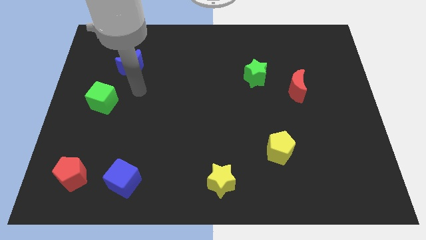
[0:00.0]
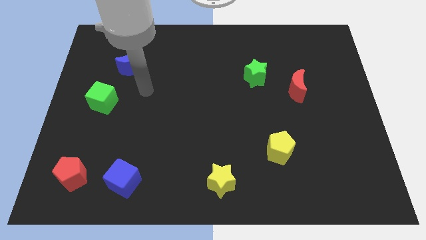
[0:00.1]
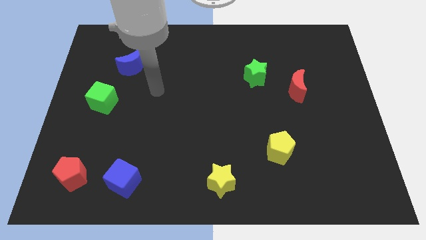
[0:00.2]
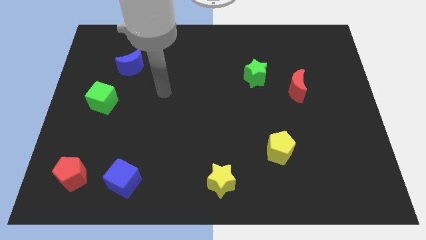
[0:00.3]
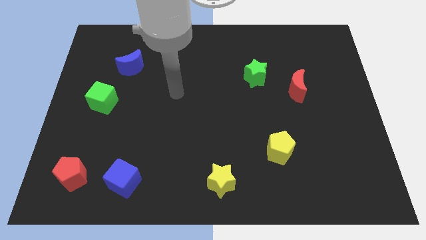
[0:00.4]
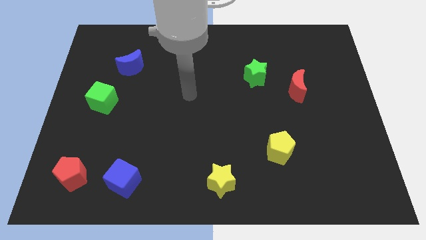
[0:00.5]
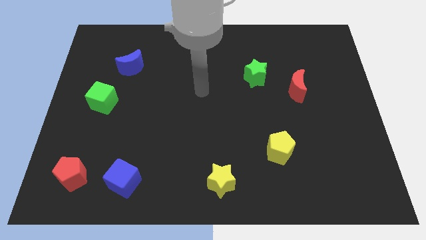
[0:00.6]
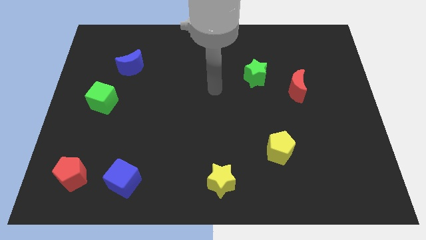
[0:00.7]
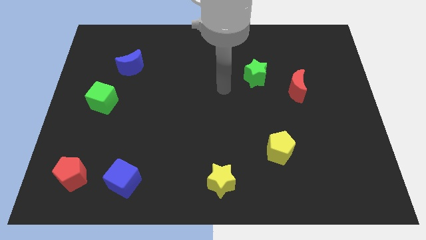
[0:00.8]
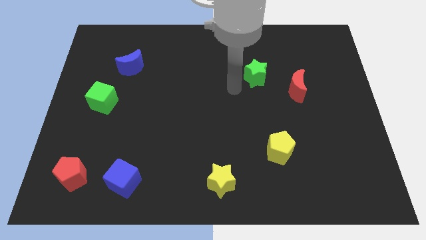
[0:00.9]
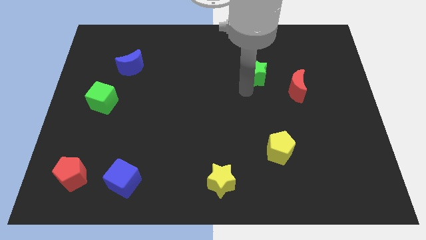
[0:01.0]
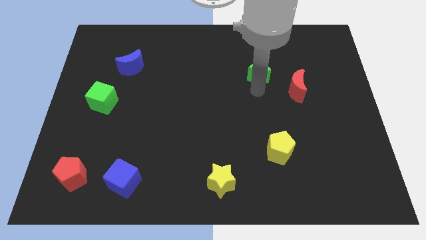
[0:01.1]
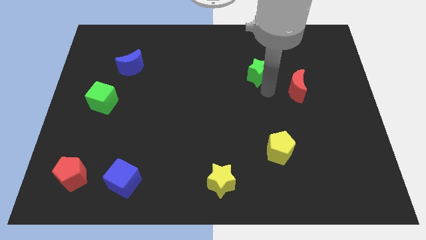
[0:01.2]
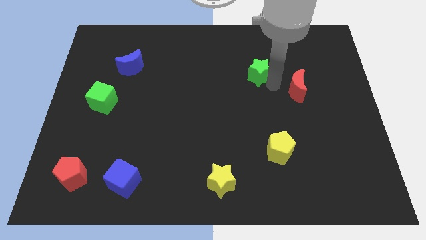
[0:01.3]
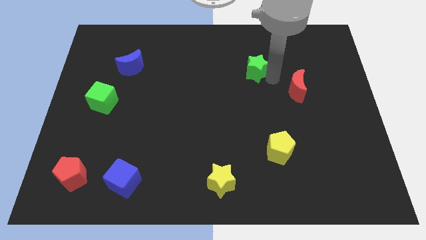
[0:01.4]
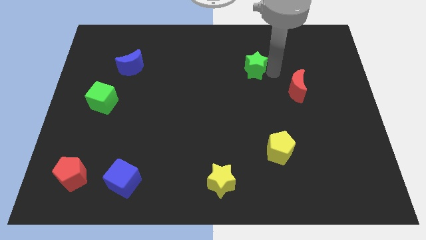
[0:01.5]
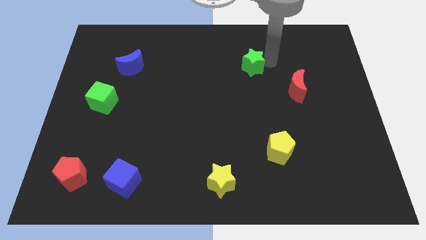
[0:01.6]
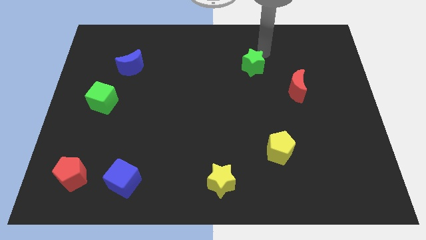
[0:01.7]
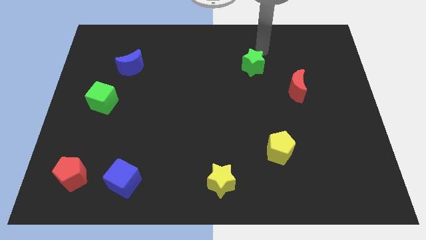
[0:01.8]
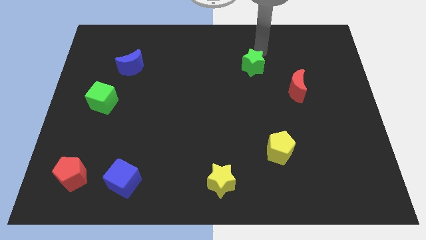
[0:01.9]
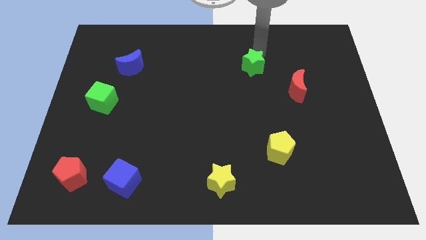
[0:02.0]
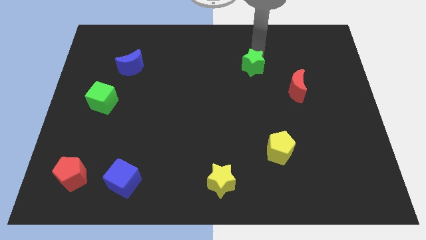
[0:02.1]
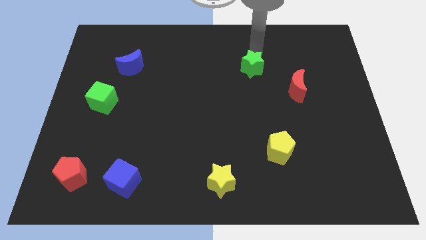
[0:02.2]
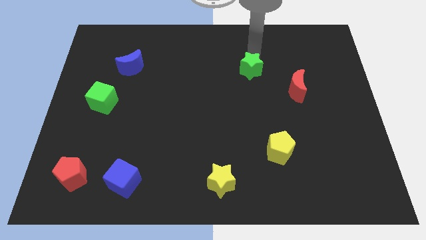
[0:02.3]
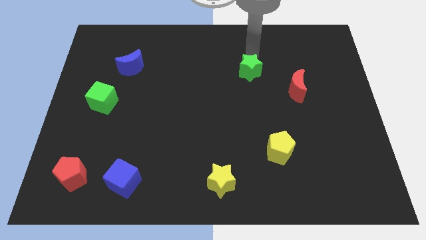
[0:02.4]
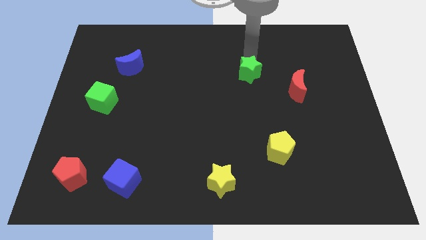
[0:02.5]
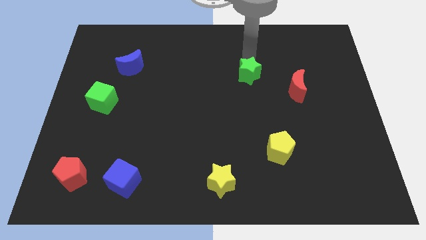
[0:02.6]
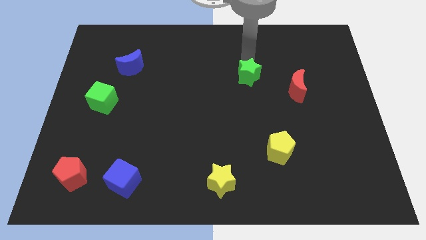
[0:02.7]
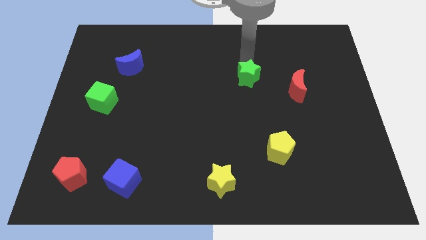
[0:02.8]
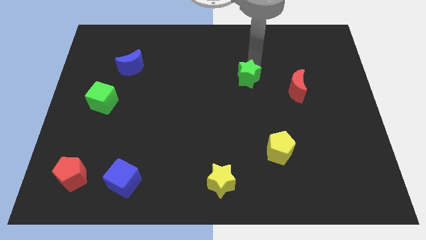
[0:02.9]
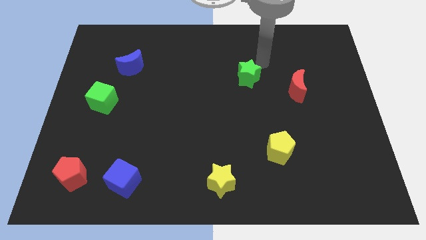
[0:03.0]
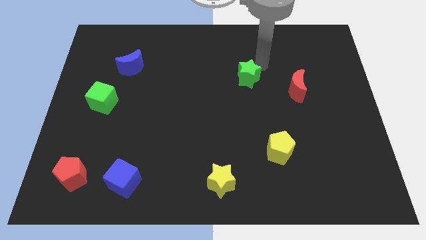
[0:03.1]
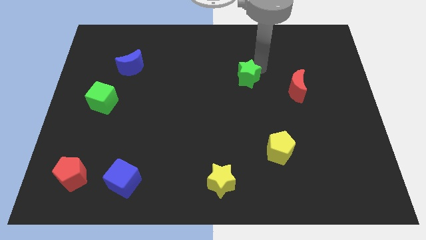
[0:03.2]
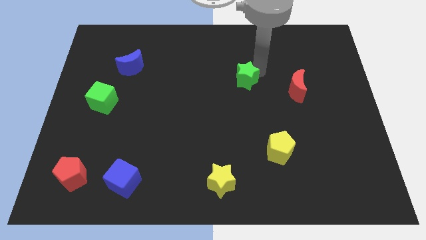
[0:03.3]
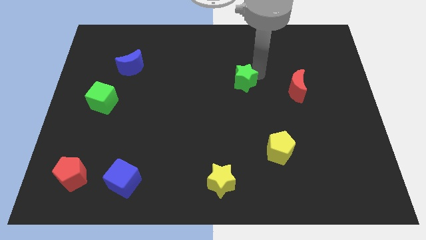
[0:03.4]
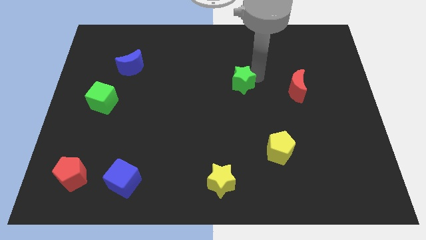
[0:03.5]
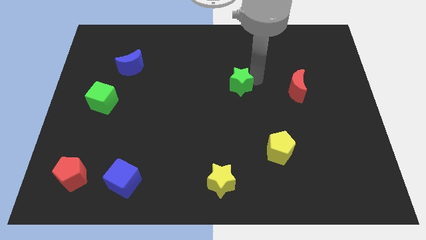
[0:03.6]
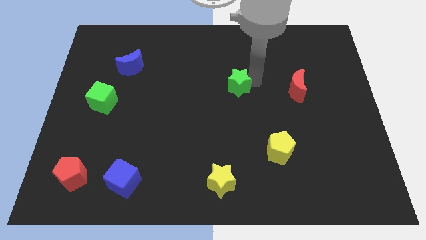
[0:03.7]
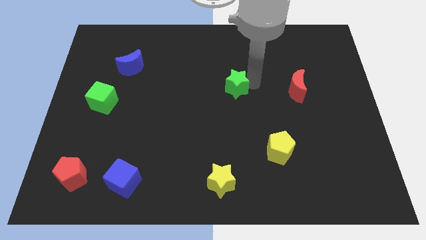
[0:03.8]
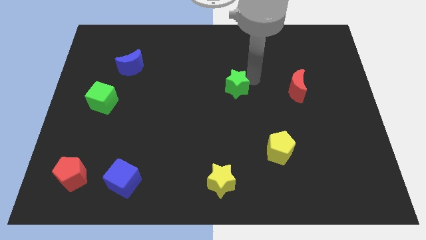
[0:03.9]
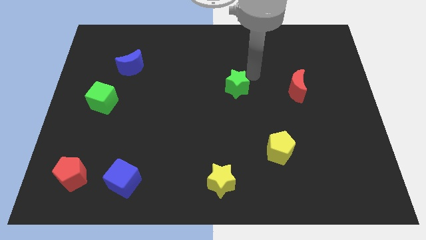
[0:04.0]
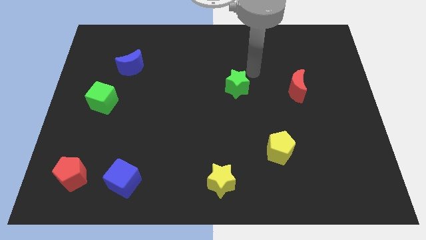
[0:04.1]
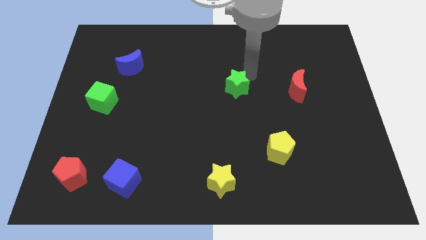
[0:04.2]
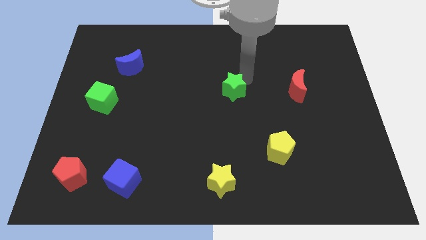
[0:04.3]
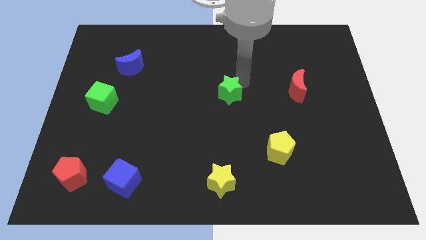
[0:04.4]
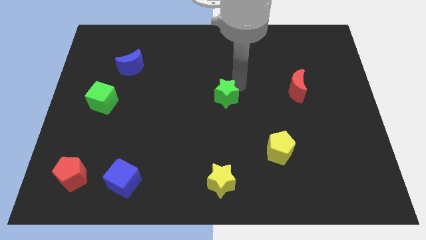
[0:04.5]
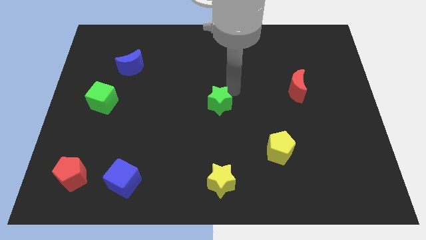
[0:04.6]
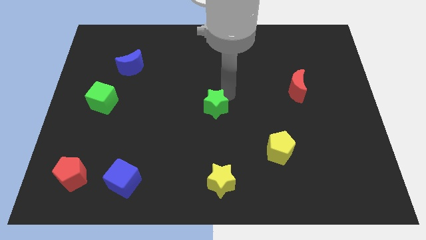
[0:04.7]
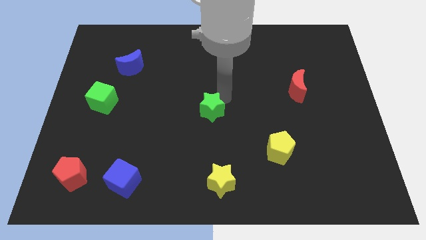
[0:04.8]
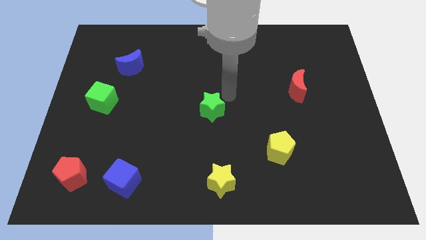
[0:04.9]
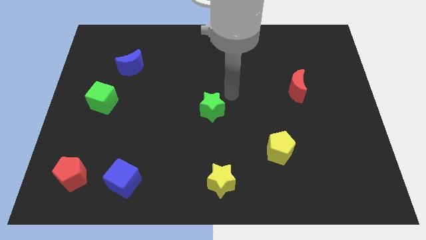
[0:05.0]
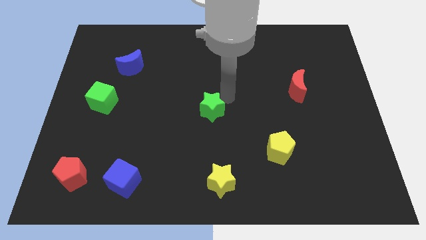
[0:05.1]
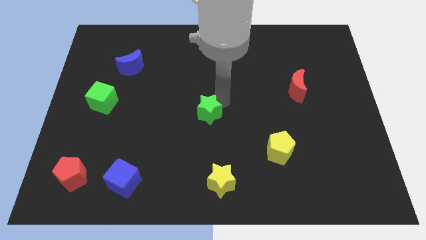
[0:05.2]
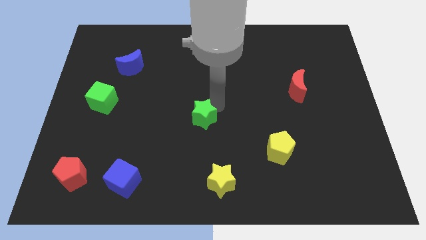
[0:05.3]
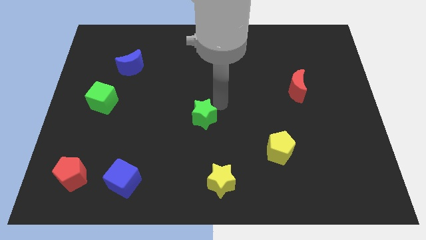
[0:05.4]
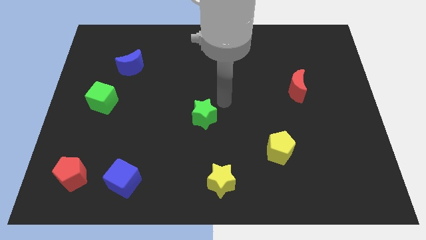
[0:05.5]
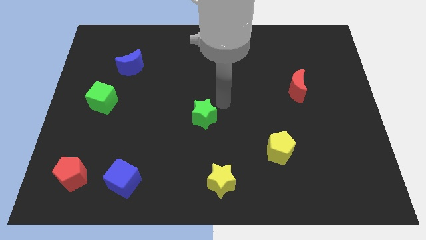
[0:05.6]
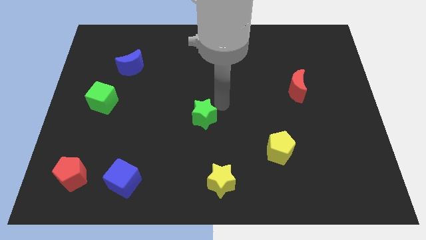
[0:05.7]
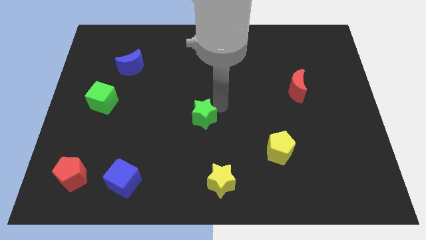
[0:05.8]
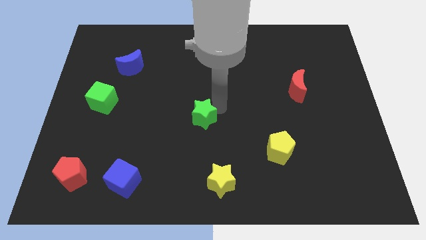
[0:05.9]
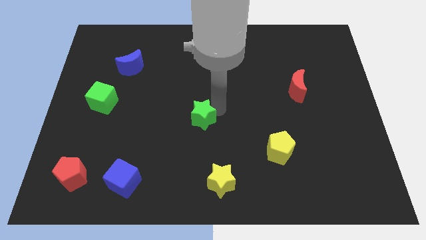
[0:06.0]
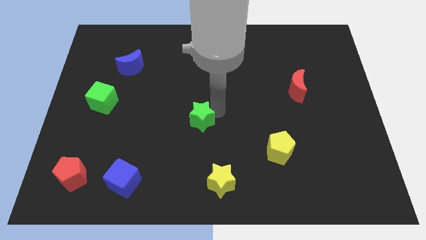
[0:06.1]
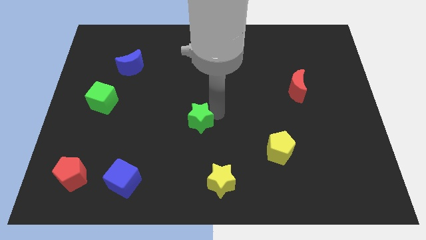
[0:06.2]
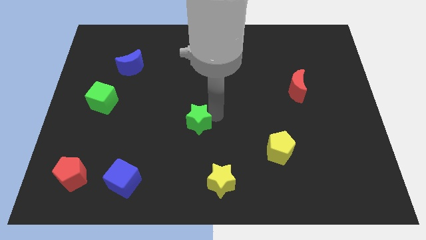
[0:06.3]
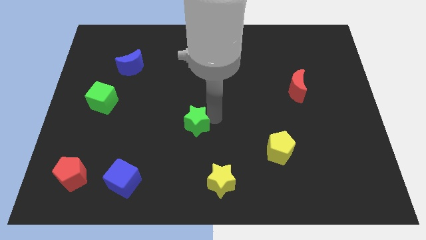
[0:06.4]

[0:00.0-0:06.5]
move the green star diagonally down and to the left

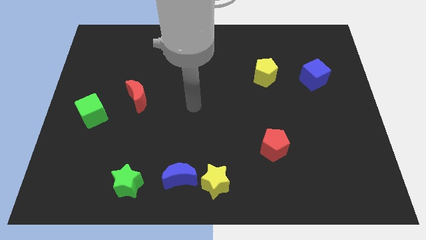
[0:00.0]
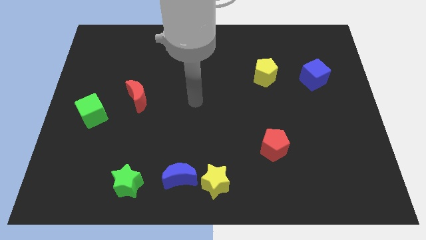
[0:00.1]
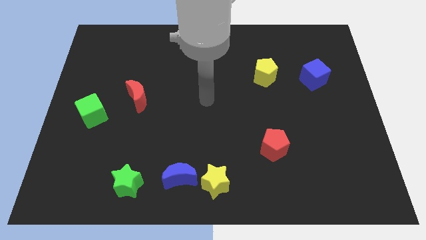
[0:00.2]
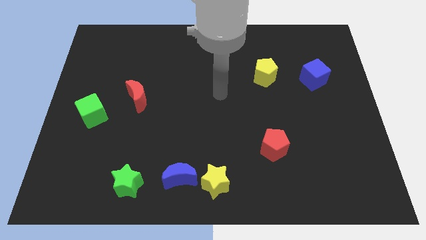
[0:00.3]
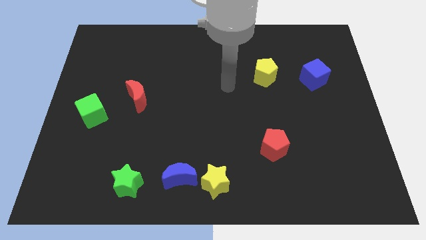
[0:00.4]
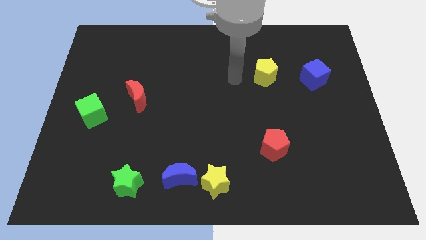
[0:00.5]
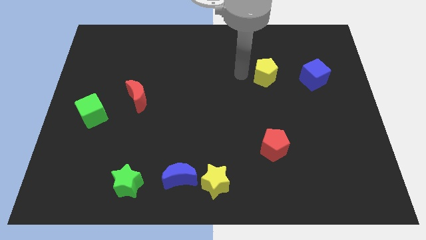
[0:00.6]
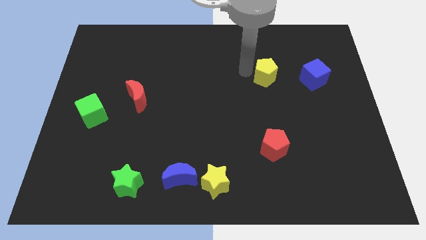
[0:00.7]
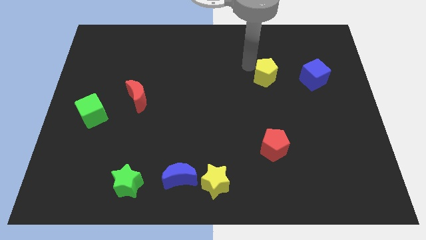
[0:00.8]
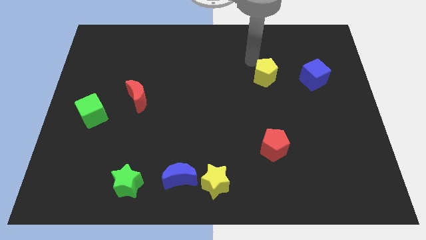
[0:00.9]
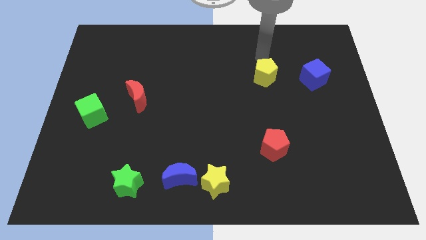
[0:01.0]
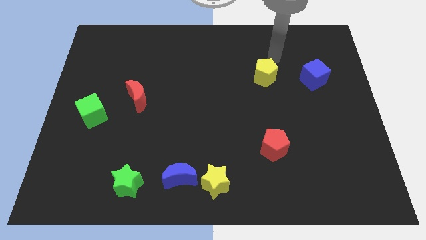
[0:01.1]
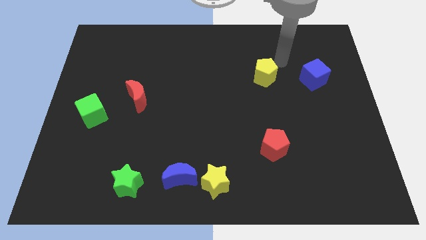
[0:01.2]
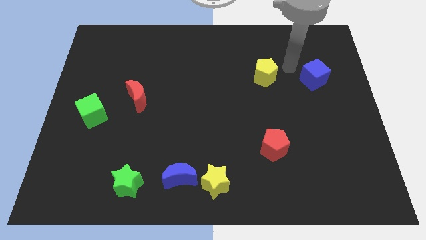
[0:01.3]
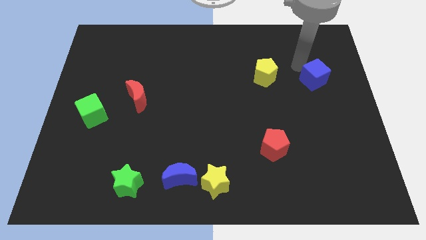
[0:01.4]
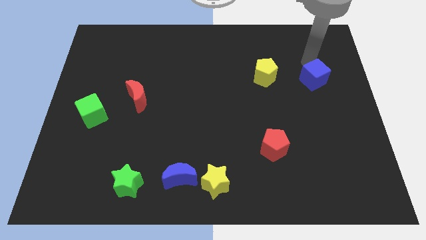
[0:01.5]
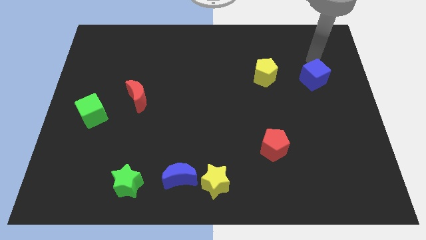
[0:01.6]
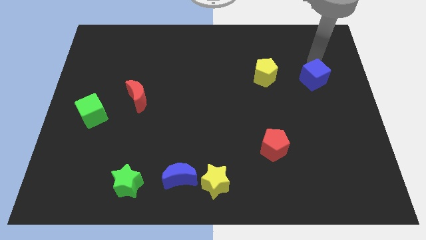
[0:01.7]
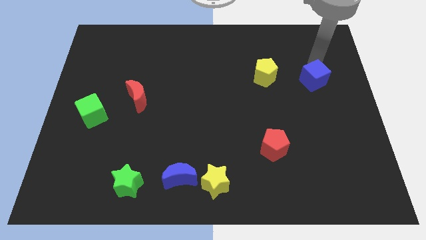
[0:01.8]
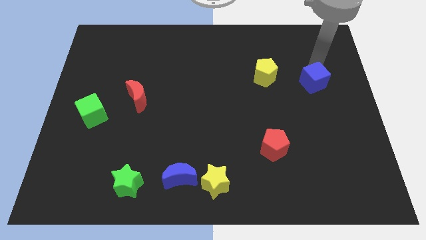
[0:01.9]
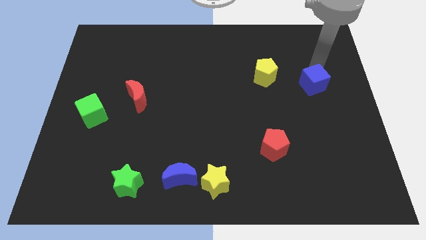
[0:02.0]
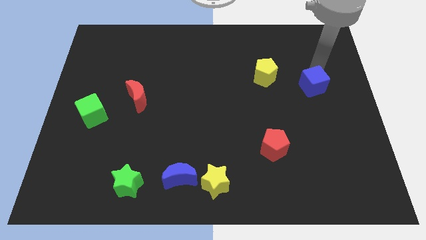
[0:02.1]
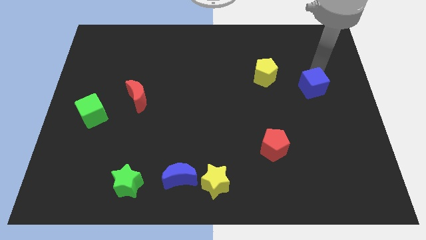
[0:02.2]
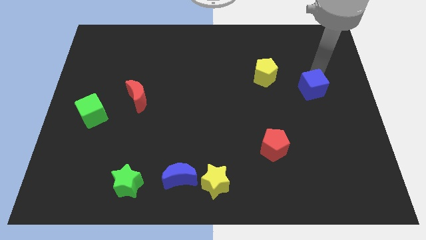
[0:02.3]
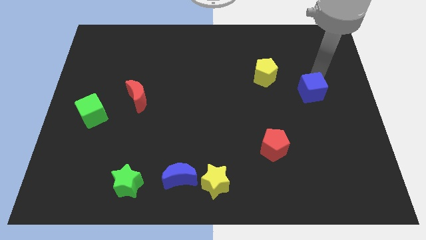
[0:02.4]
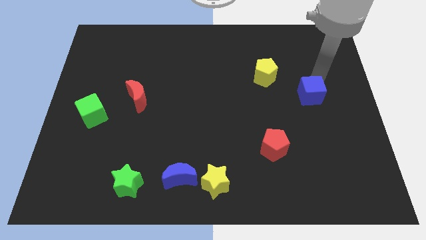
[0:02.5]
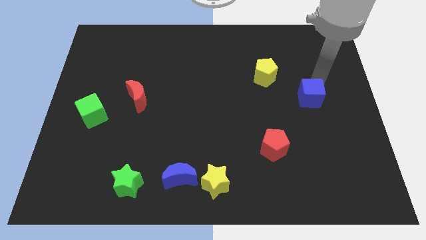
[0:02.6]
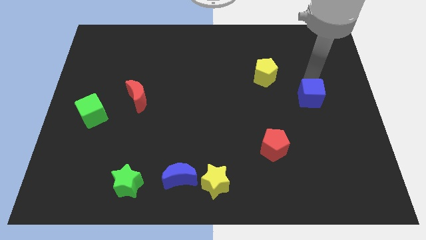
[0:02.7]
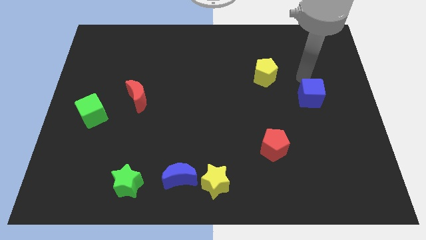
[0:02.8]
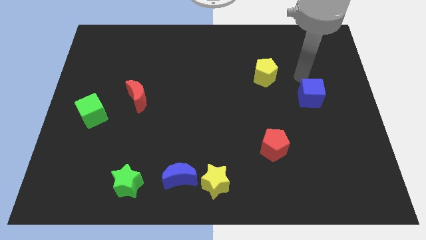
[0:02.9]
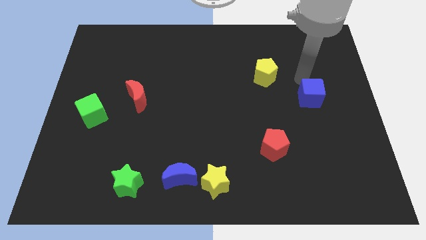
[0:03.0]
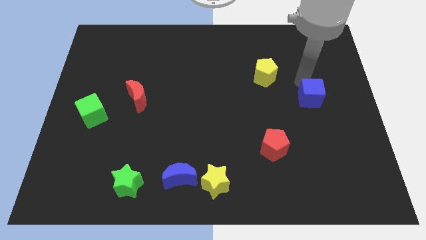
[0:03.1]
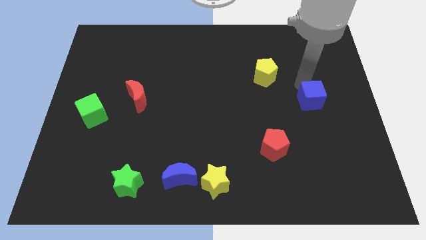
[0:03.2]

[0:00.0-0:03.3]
slightly move the blue cube downwards
